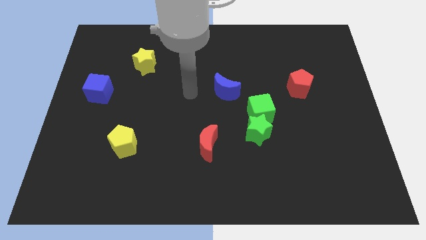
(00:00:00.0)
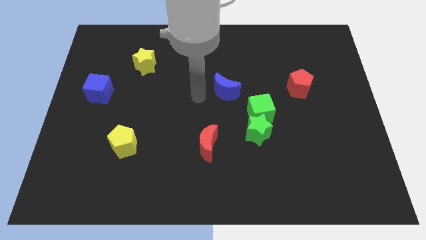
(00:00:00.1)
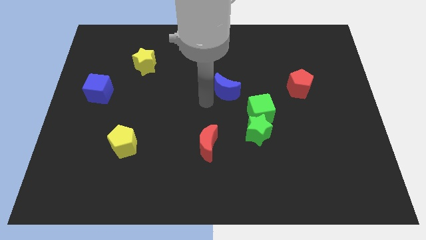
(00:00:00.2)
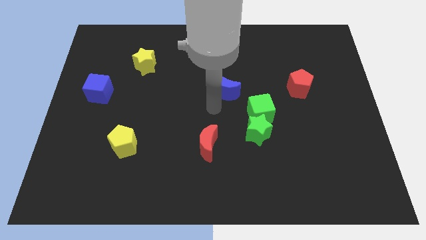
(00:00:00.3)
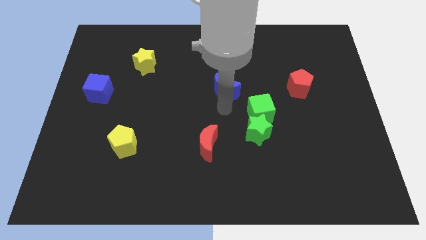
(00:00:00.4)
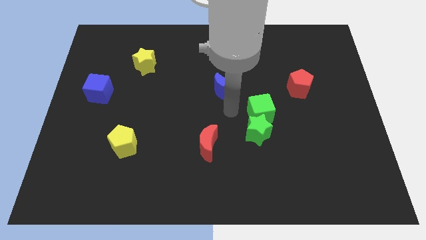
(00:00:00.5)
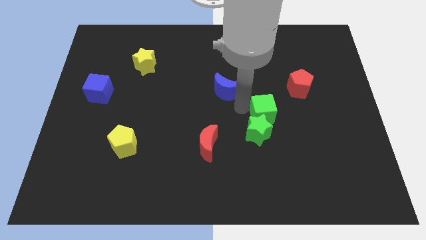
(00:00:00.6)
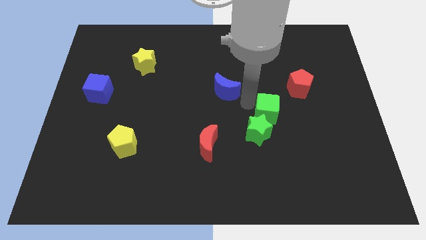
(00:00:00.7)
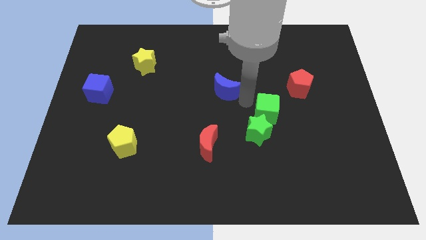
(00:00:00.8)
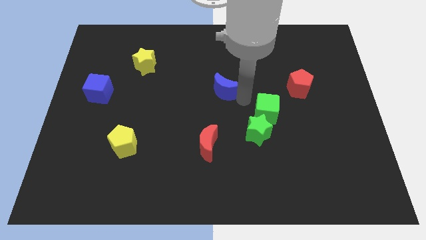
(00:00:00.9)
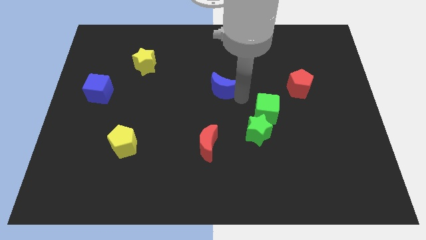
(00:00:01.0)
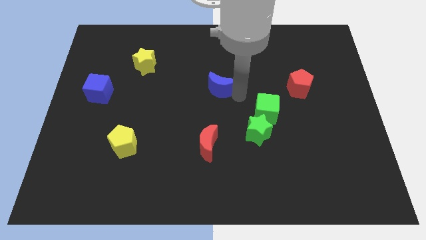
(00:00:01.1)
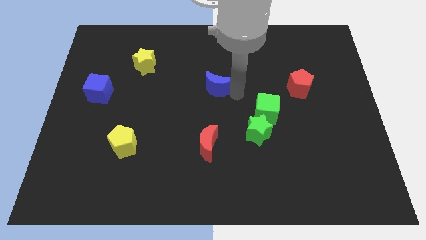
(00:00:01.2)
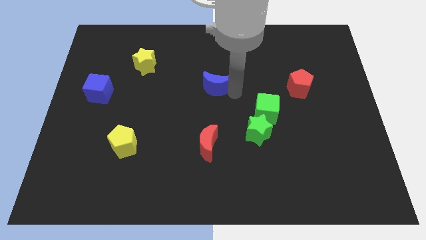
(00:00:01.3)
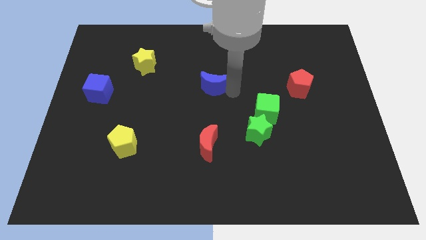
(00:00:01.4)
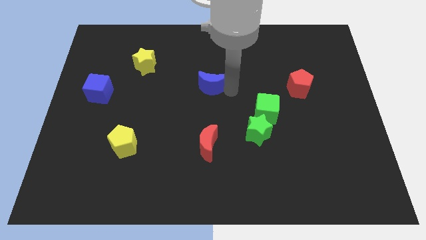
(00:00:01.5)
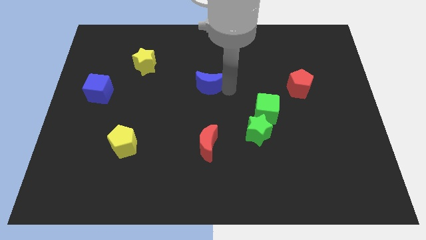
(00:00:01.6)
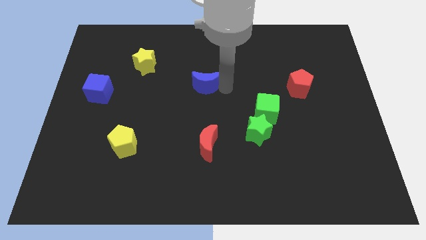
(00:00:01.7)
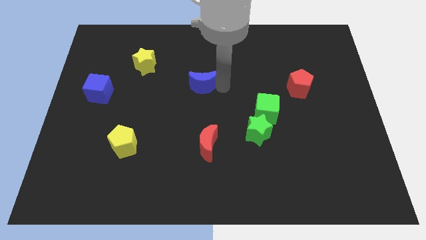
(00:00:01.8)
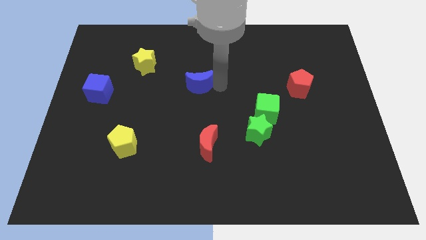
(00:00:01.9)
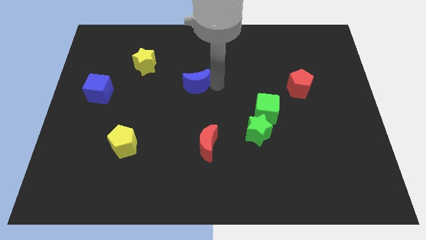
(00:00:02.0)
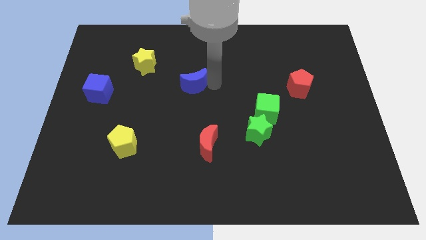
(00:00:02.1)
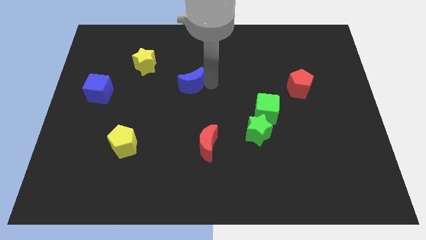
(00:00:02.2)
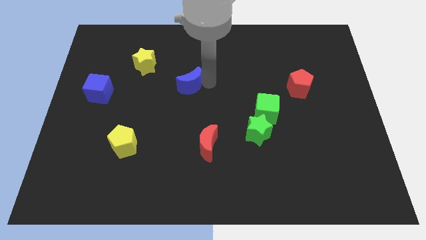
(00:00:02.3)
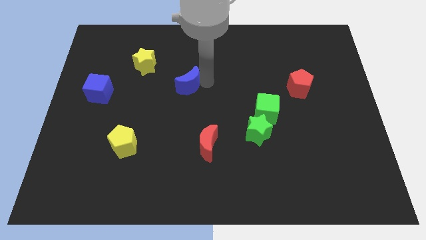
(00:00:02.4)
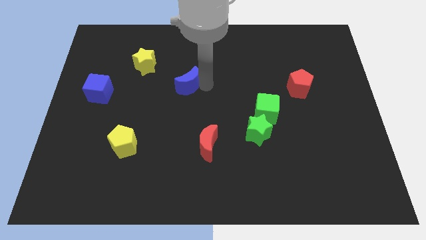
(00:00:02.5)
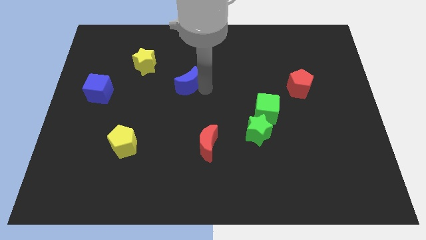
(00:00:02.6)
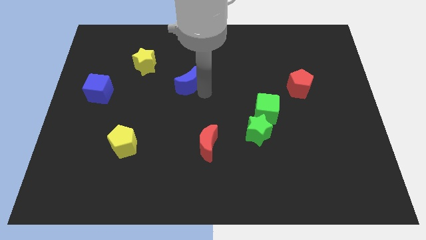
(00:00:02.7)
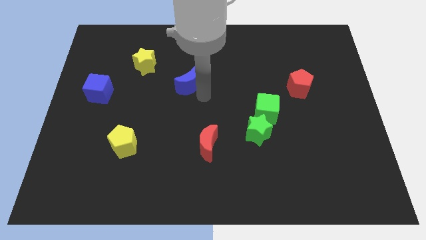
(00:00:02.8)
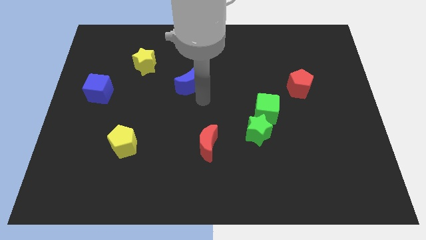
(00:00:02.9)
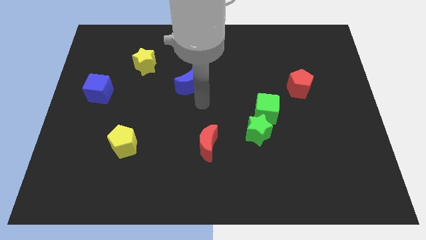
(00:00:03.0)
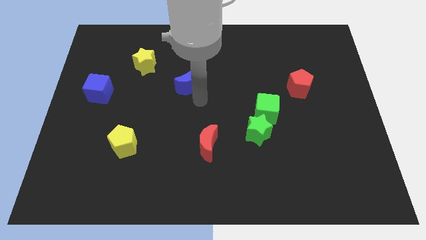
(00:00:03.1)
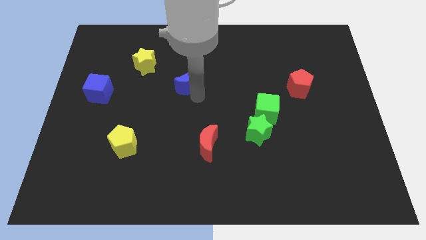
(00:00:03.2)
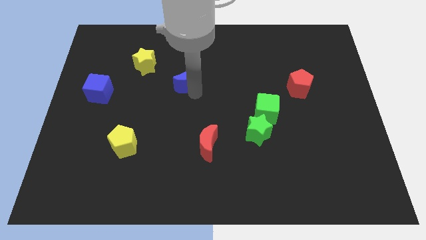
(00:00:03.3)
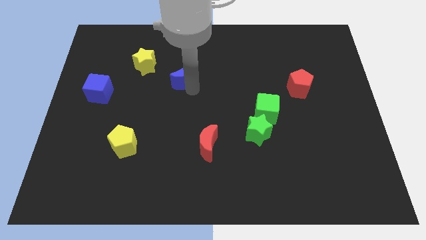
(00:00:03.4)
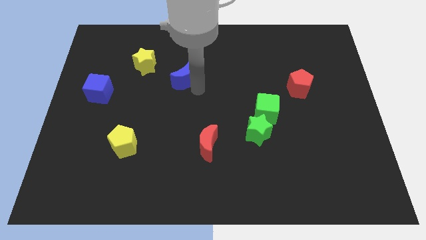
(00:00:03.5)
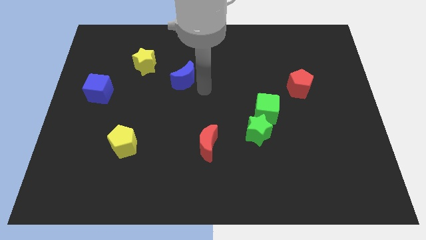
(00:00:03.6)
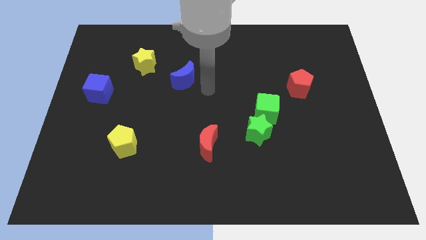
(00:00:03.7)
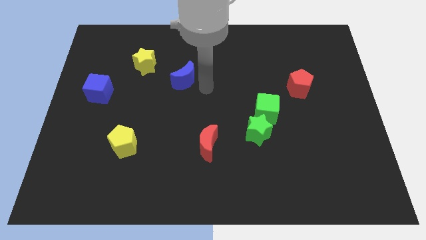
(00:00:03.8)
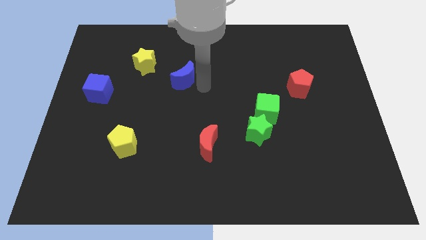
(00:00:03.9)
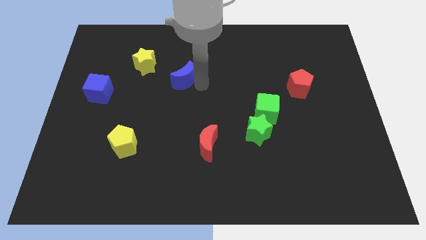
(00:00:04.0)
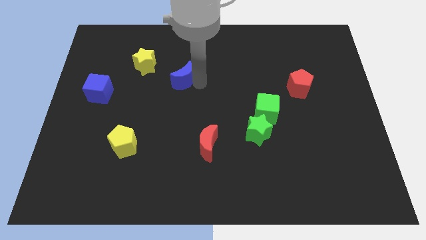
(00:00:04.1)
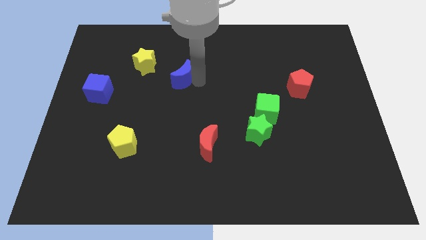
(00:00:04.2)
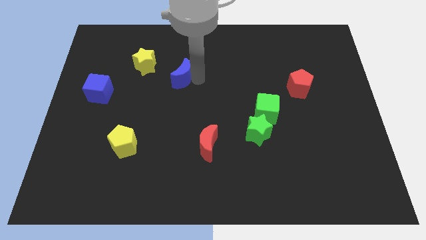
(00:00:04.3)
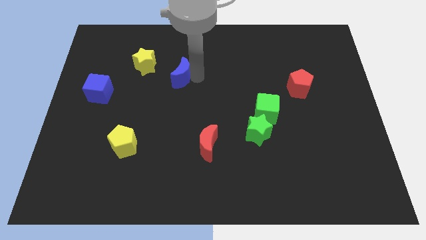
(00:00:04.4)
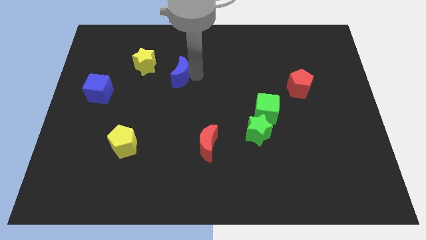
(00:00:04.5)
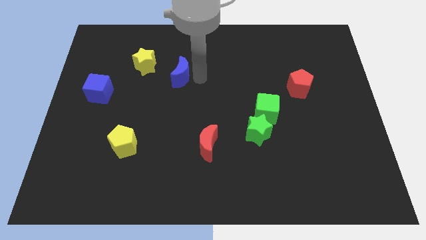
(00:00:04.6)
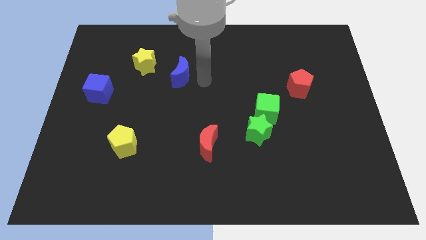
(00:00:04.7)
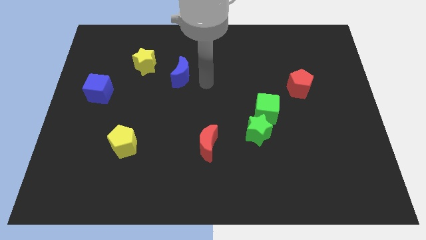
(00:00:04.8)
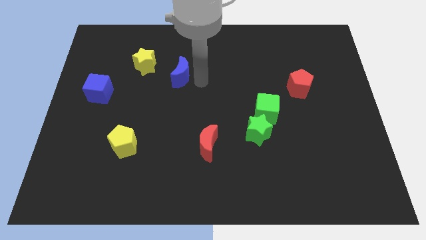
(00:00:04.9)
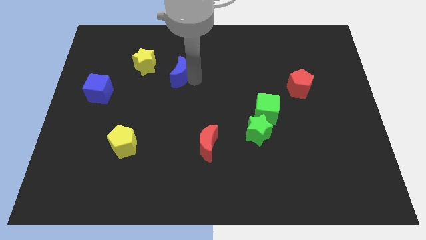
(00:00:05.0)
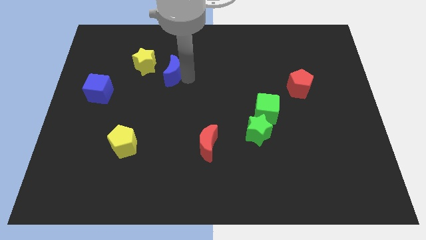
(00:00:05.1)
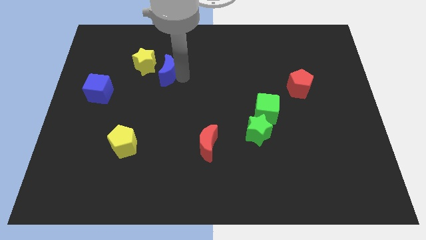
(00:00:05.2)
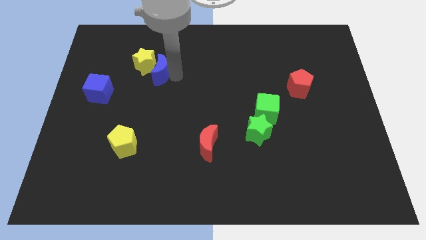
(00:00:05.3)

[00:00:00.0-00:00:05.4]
push the blue moon towards the yellow star

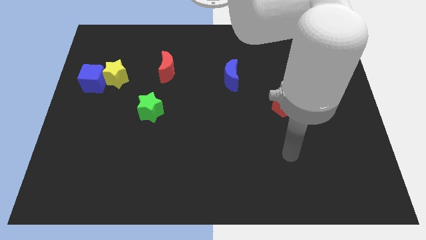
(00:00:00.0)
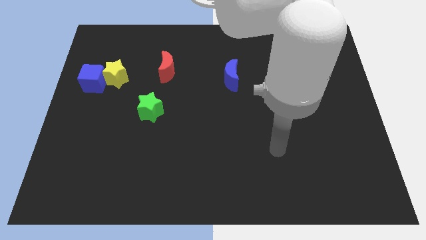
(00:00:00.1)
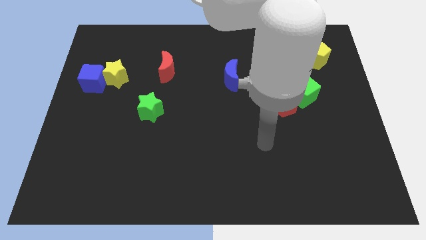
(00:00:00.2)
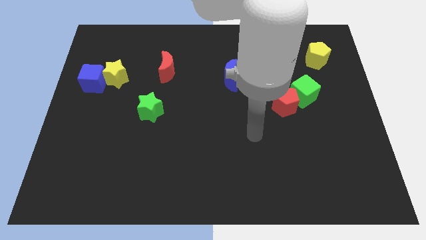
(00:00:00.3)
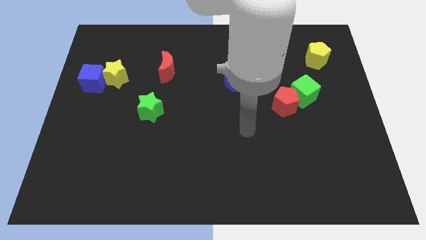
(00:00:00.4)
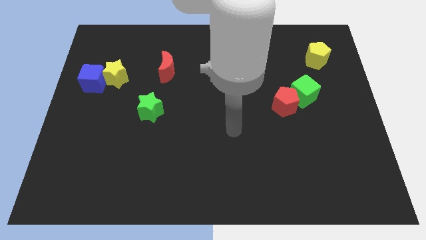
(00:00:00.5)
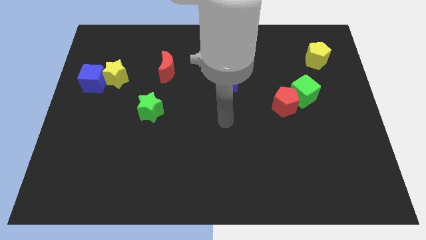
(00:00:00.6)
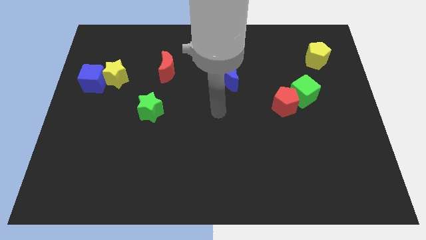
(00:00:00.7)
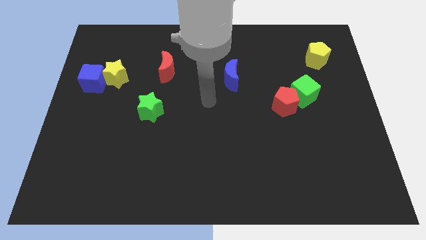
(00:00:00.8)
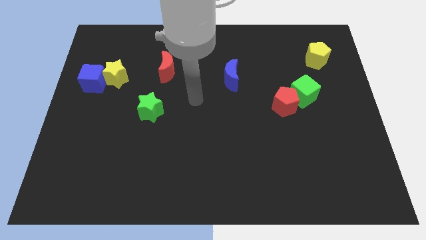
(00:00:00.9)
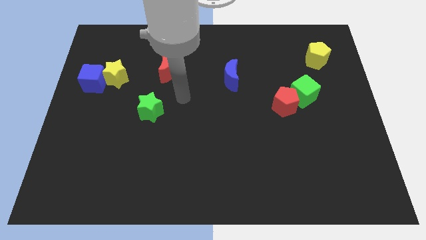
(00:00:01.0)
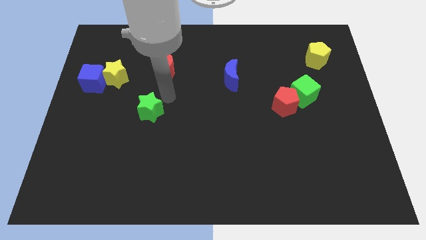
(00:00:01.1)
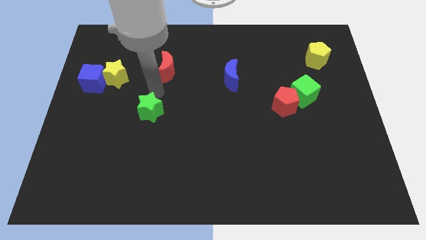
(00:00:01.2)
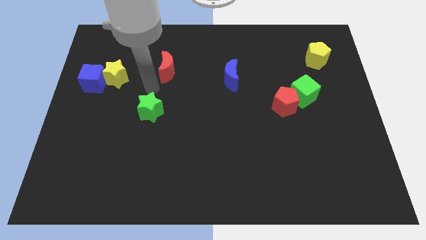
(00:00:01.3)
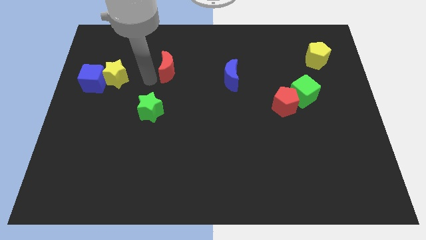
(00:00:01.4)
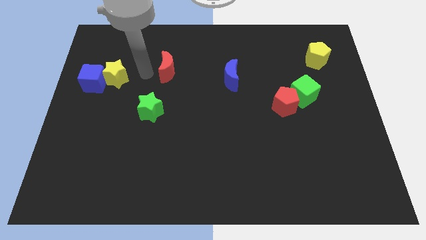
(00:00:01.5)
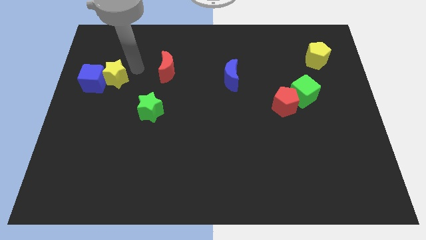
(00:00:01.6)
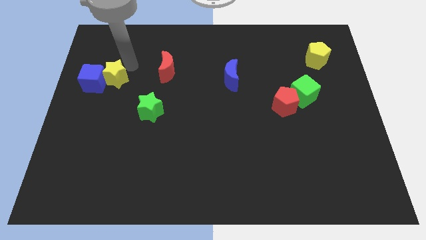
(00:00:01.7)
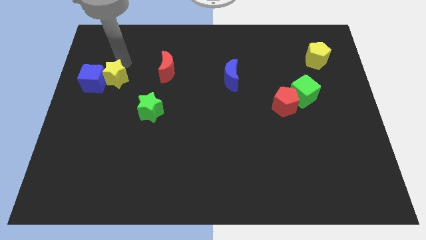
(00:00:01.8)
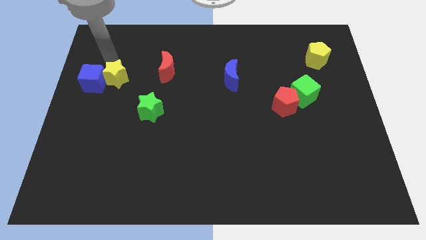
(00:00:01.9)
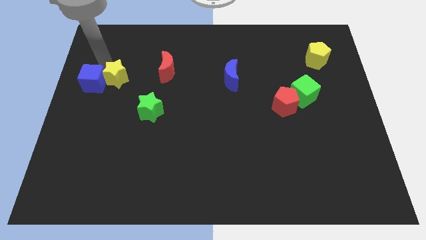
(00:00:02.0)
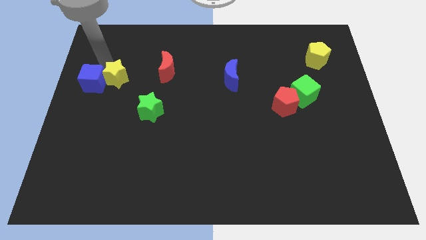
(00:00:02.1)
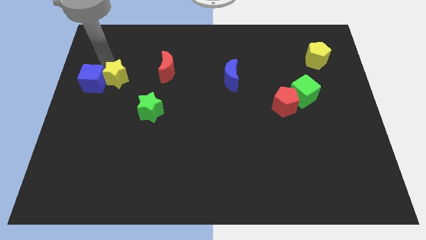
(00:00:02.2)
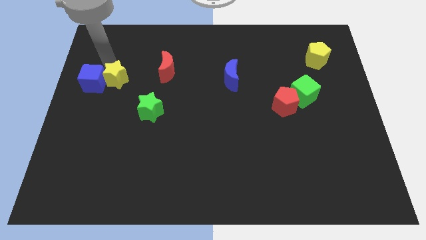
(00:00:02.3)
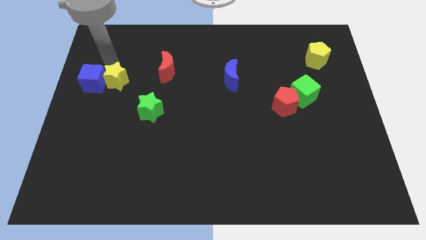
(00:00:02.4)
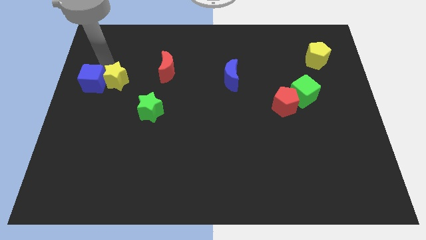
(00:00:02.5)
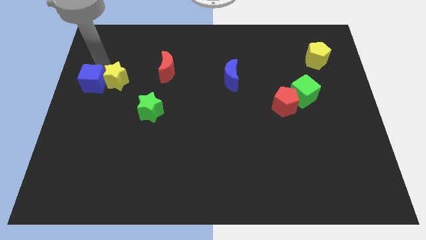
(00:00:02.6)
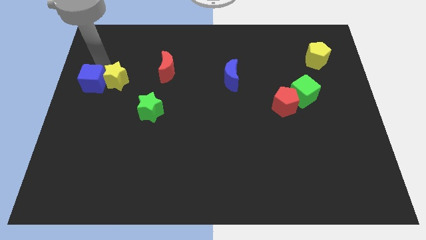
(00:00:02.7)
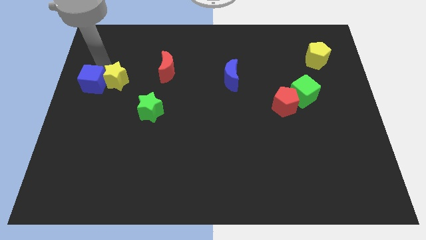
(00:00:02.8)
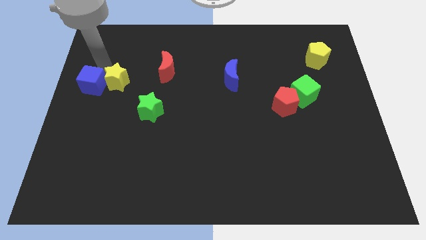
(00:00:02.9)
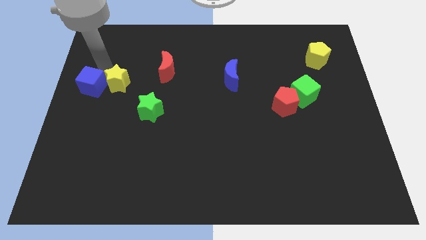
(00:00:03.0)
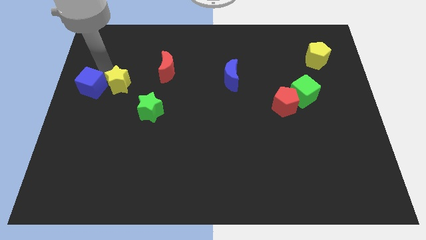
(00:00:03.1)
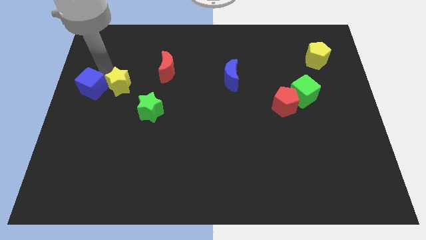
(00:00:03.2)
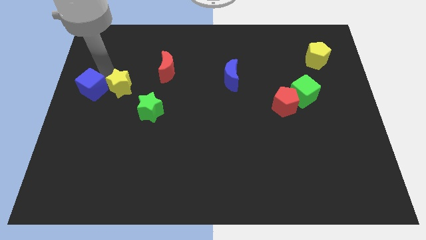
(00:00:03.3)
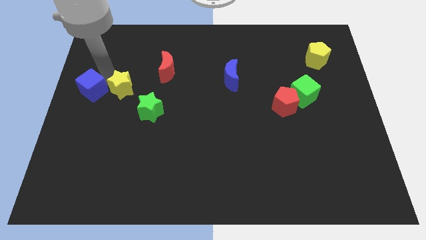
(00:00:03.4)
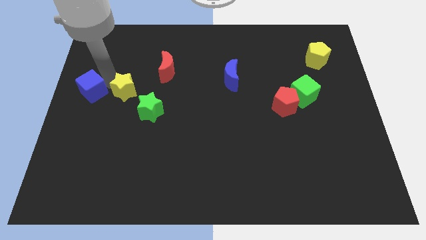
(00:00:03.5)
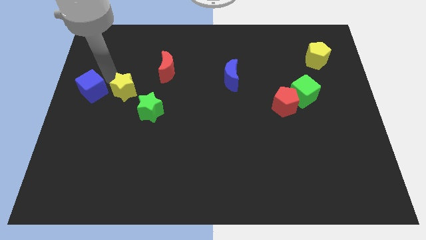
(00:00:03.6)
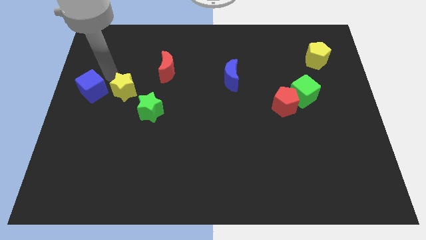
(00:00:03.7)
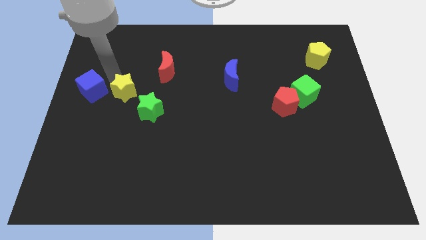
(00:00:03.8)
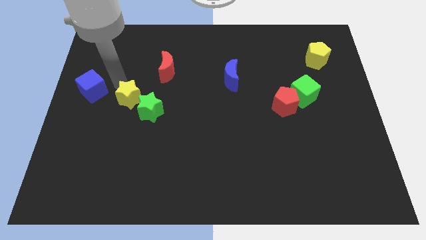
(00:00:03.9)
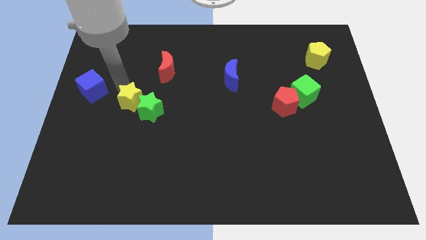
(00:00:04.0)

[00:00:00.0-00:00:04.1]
push the yellow star to the green star
